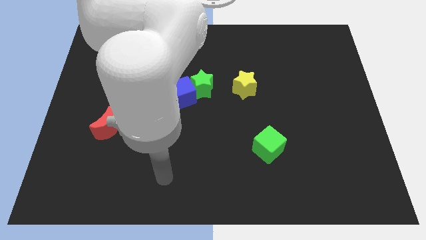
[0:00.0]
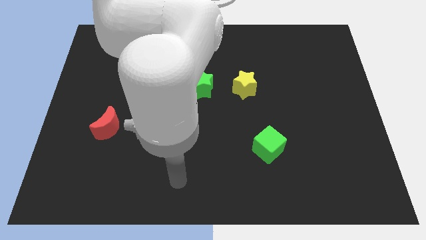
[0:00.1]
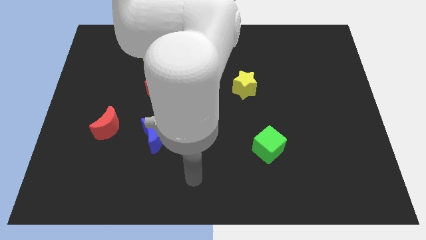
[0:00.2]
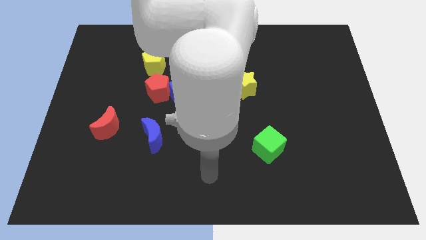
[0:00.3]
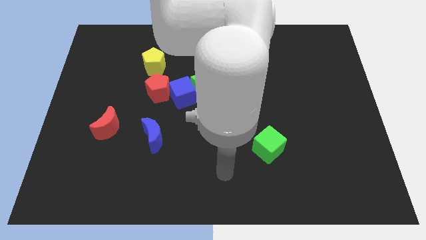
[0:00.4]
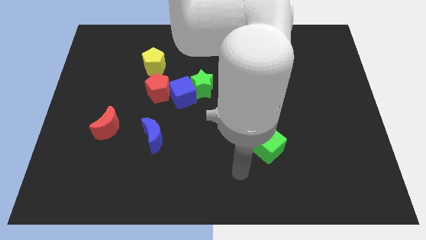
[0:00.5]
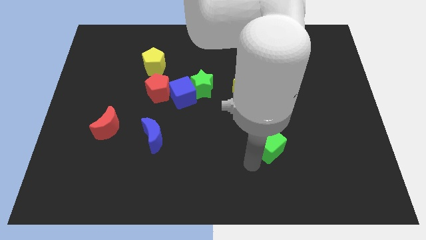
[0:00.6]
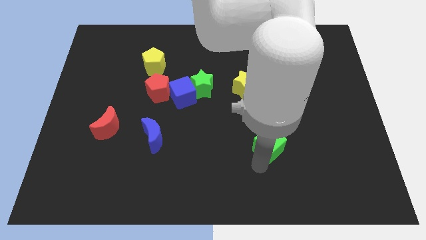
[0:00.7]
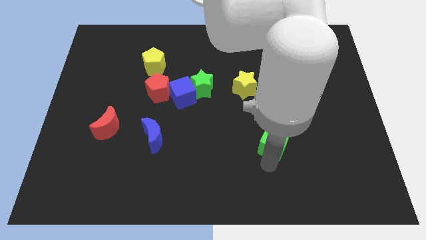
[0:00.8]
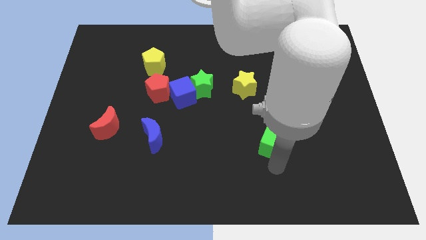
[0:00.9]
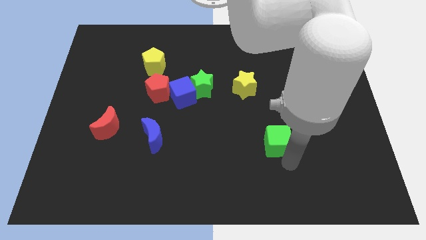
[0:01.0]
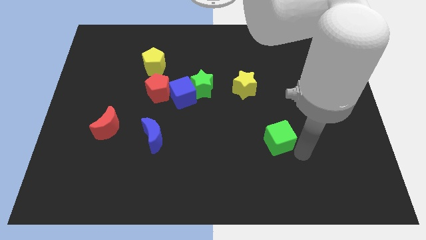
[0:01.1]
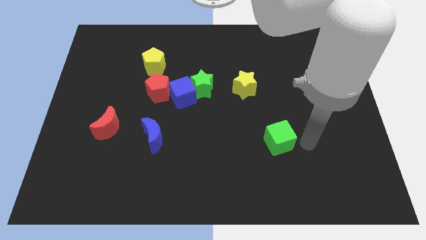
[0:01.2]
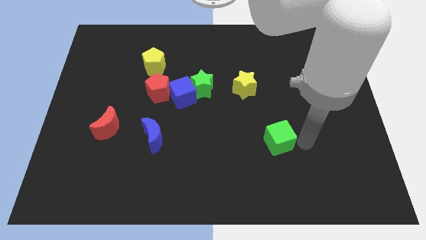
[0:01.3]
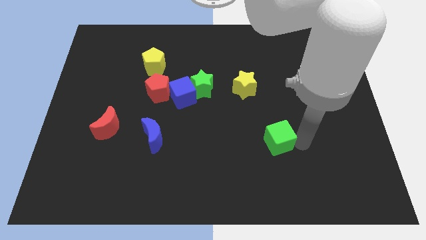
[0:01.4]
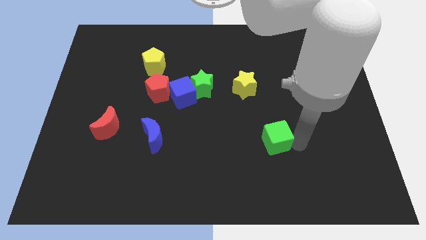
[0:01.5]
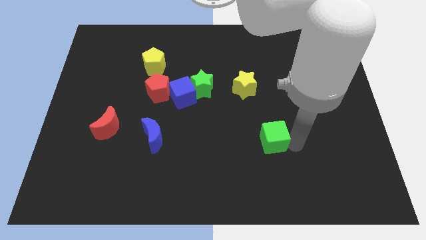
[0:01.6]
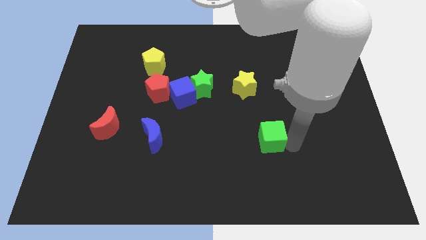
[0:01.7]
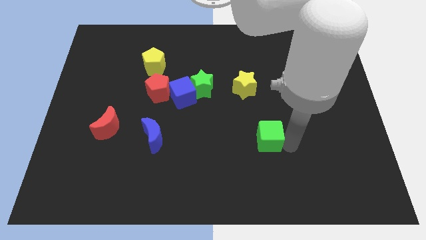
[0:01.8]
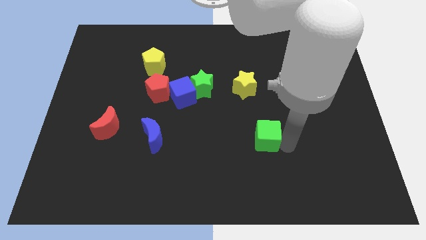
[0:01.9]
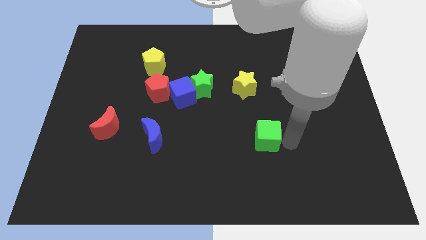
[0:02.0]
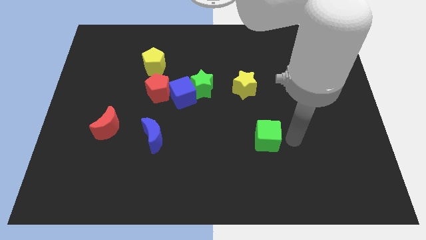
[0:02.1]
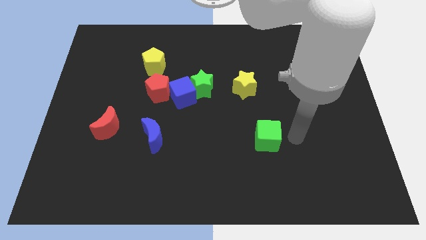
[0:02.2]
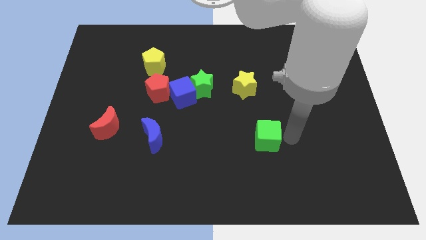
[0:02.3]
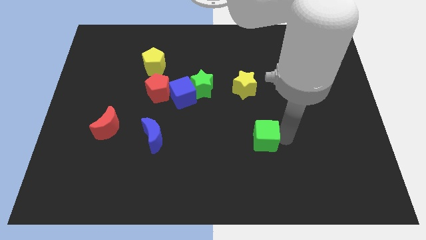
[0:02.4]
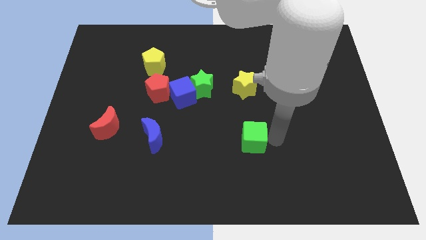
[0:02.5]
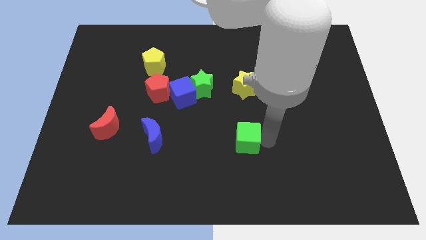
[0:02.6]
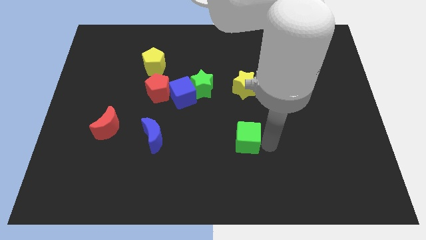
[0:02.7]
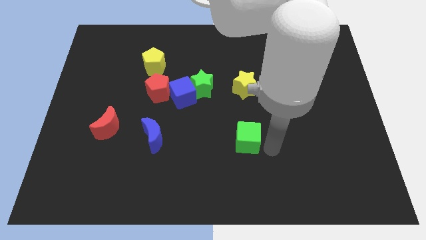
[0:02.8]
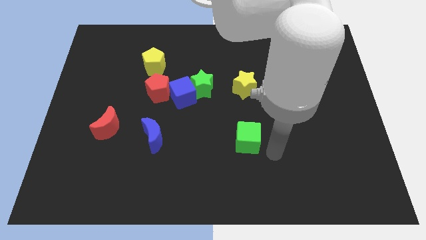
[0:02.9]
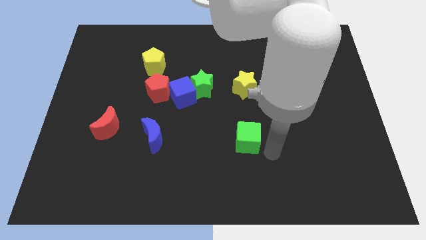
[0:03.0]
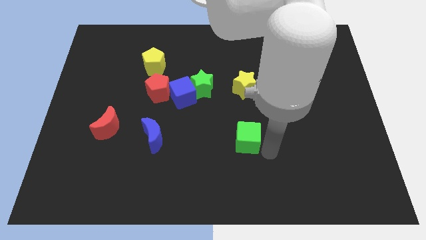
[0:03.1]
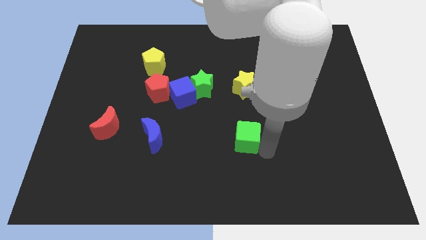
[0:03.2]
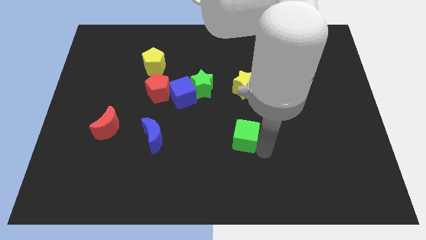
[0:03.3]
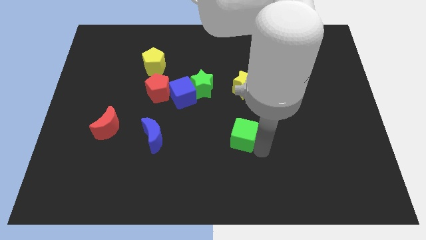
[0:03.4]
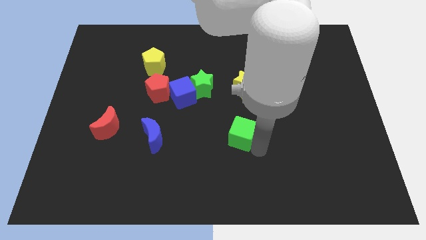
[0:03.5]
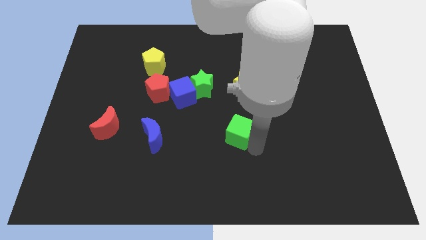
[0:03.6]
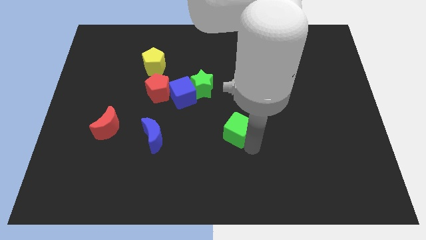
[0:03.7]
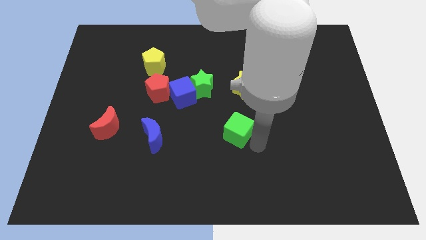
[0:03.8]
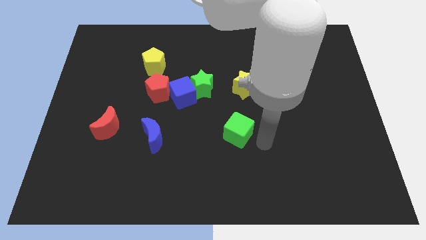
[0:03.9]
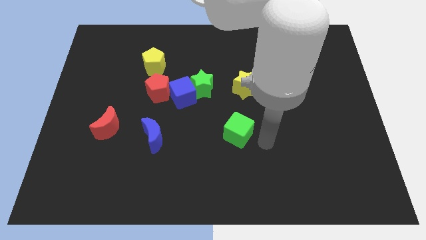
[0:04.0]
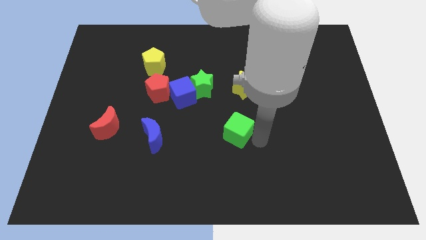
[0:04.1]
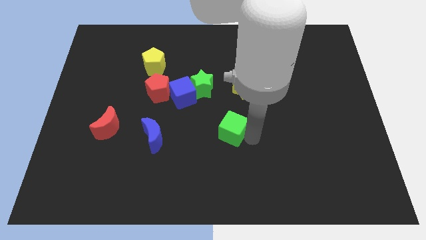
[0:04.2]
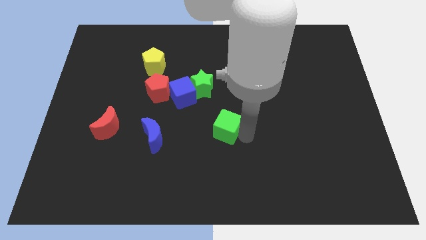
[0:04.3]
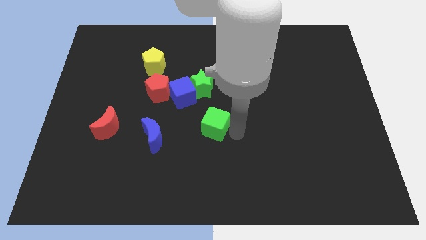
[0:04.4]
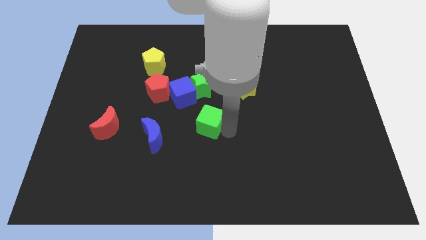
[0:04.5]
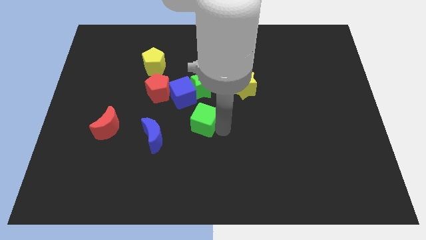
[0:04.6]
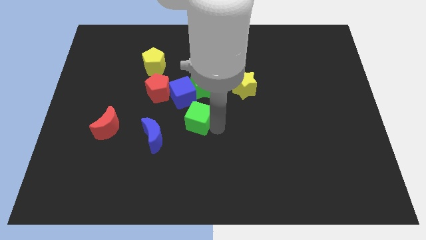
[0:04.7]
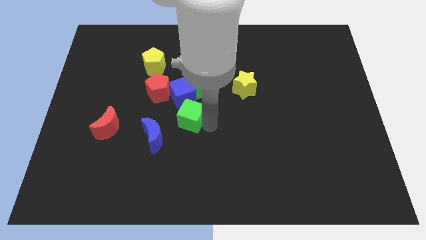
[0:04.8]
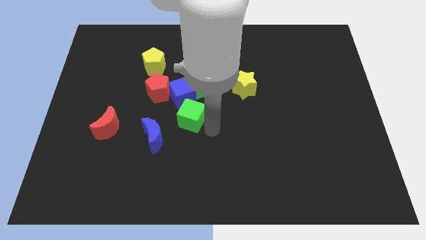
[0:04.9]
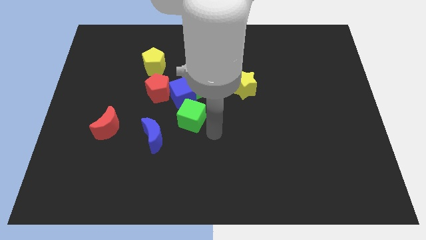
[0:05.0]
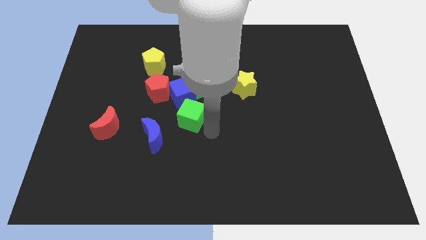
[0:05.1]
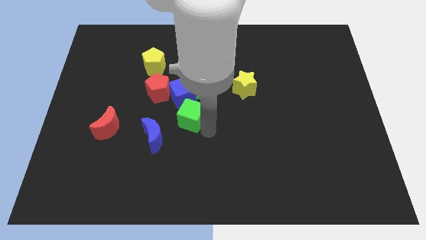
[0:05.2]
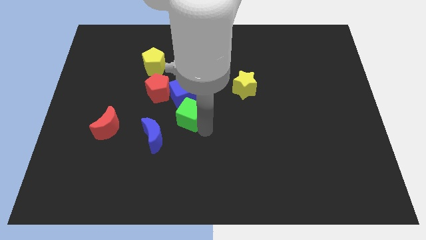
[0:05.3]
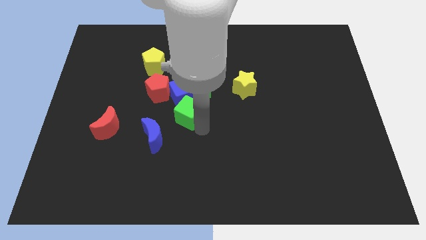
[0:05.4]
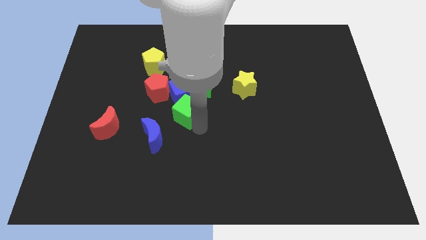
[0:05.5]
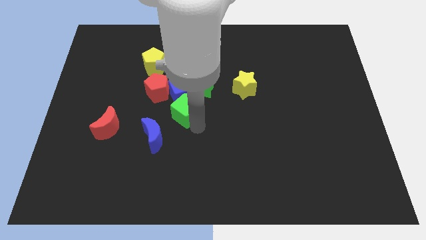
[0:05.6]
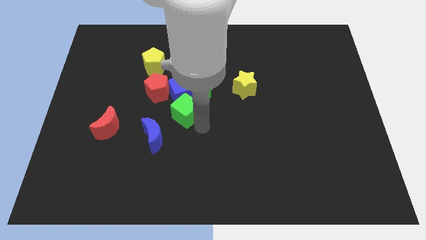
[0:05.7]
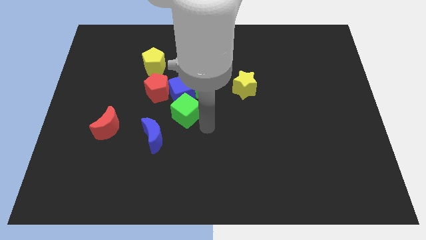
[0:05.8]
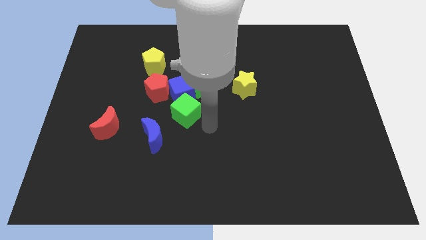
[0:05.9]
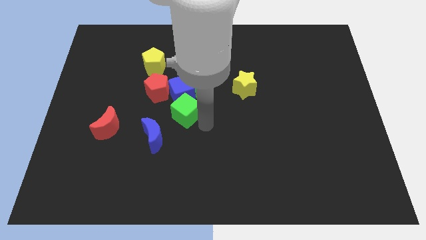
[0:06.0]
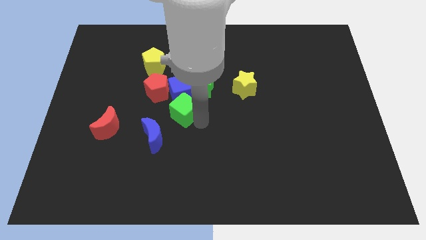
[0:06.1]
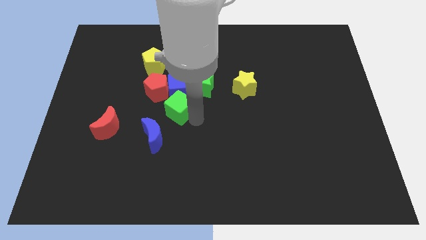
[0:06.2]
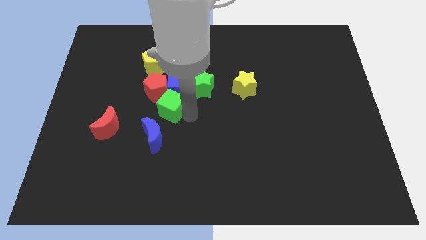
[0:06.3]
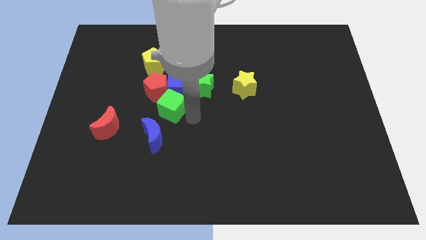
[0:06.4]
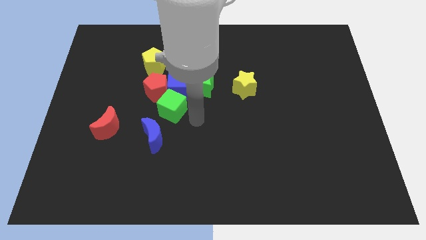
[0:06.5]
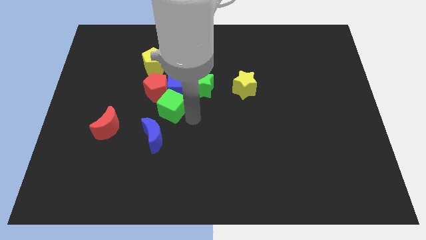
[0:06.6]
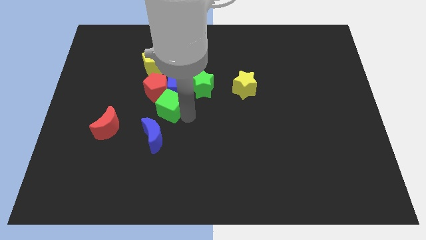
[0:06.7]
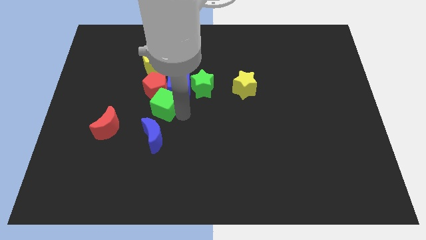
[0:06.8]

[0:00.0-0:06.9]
put the green cube towards the red pentagon
